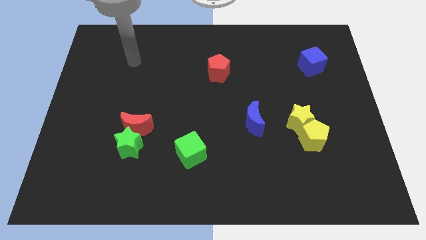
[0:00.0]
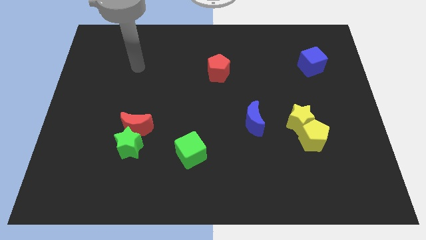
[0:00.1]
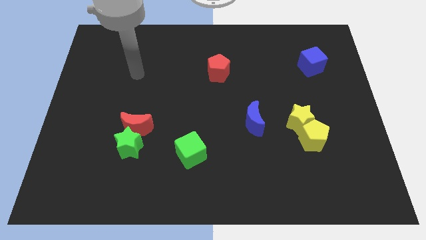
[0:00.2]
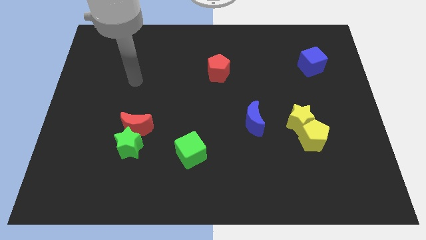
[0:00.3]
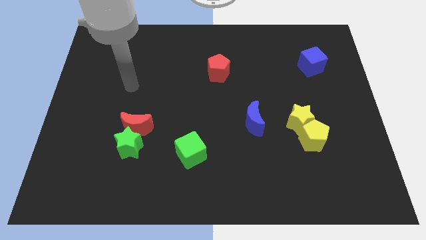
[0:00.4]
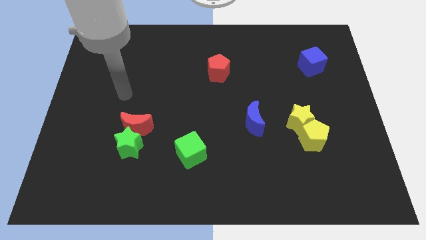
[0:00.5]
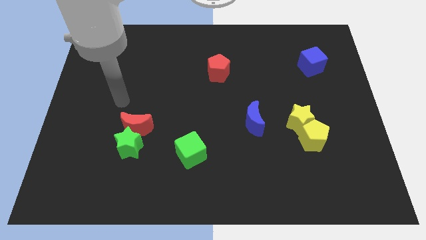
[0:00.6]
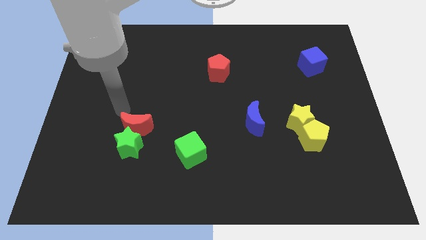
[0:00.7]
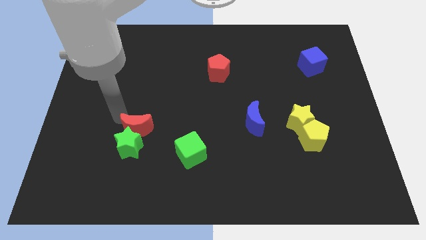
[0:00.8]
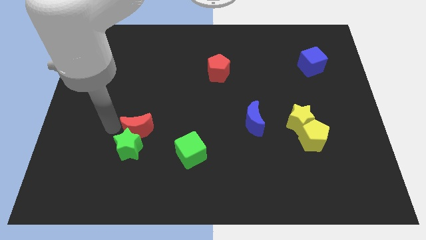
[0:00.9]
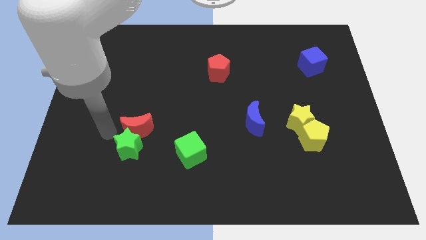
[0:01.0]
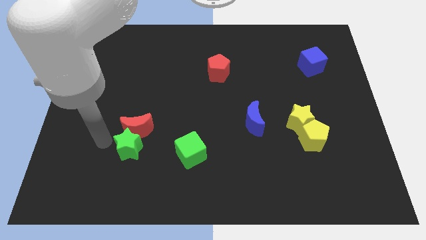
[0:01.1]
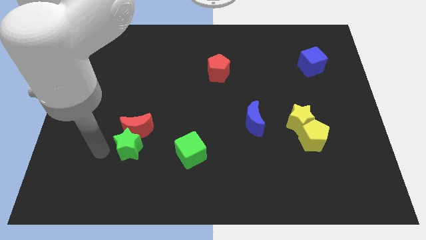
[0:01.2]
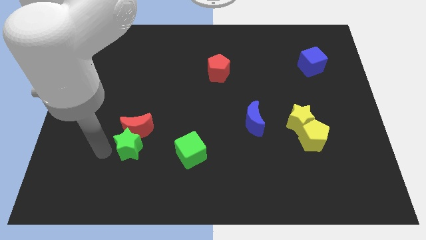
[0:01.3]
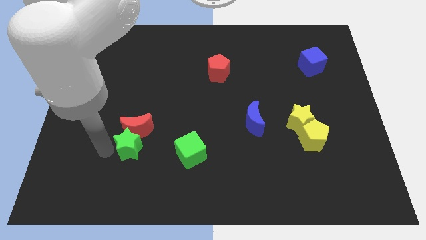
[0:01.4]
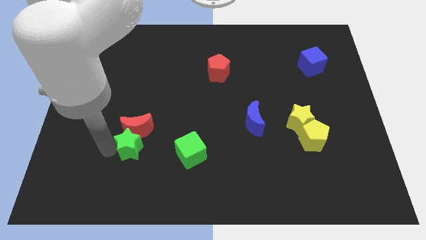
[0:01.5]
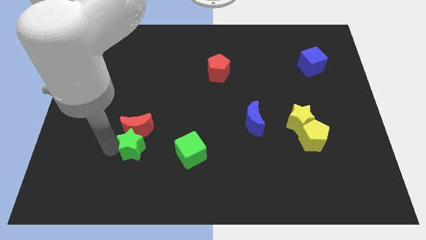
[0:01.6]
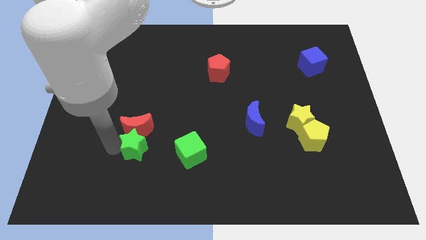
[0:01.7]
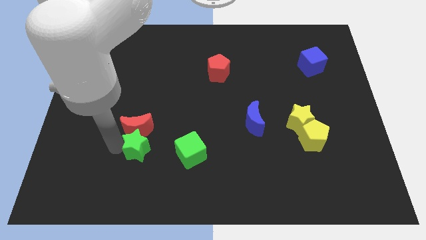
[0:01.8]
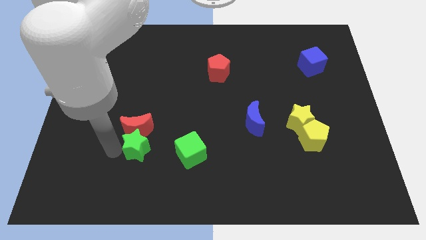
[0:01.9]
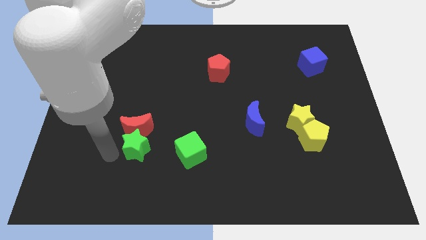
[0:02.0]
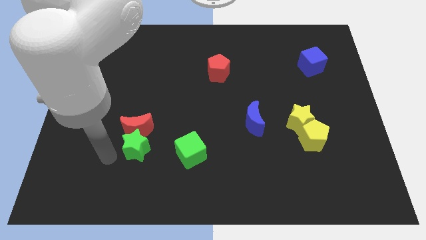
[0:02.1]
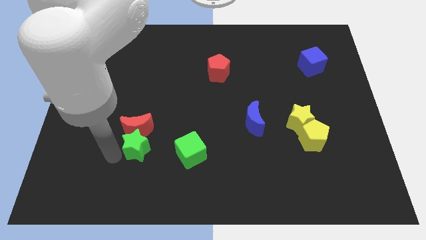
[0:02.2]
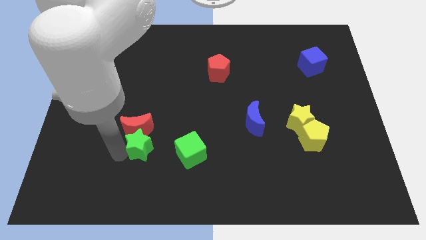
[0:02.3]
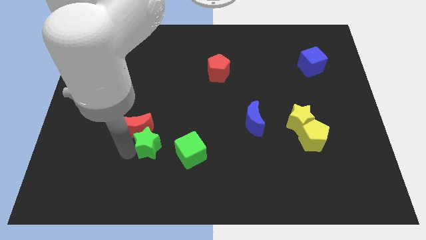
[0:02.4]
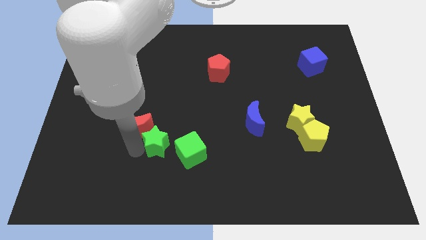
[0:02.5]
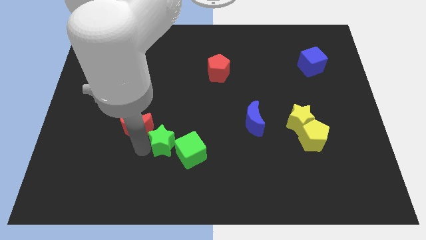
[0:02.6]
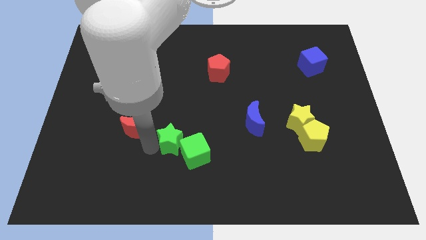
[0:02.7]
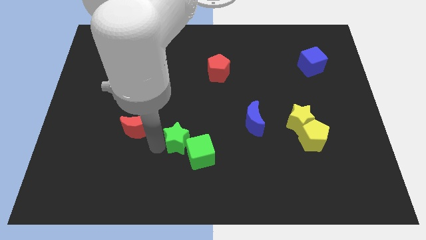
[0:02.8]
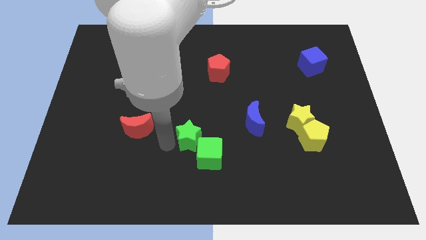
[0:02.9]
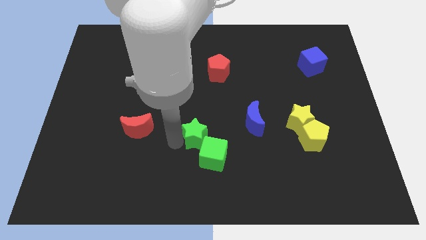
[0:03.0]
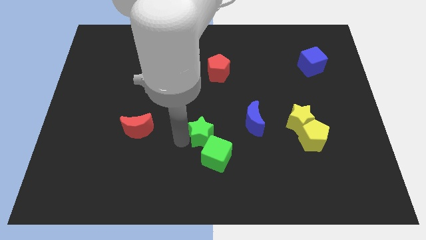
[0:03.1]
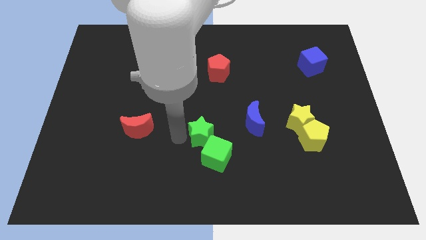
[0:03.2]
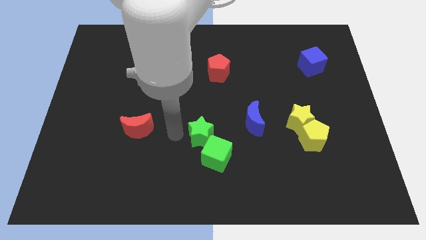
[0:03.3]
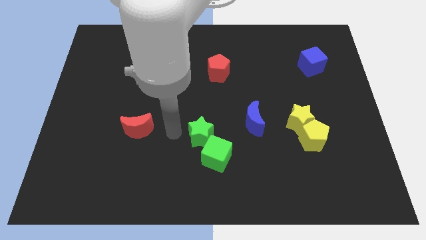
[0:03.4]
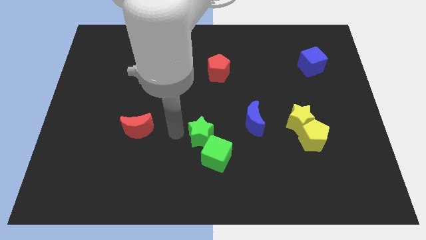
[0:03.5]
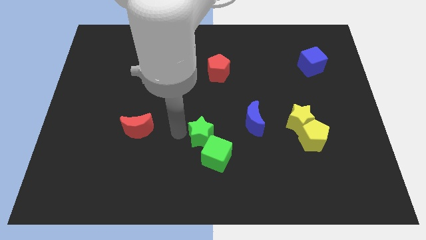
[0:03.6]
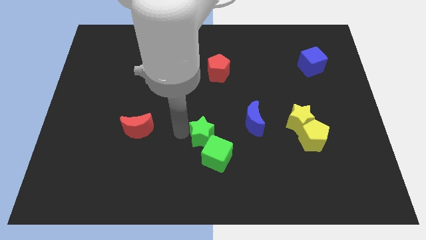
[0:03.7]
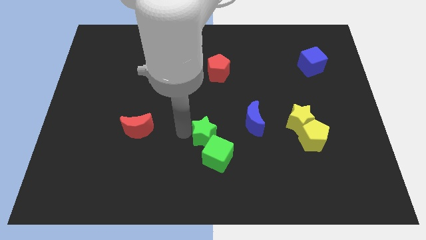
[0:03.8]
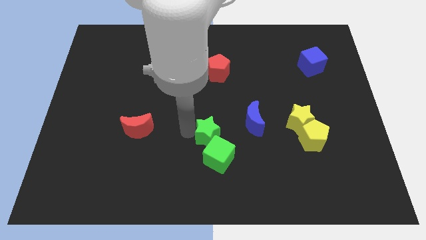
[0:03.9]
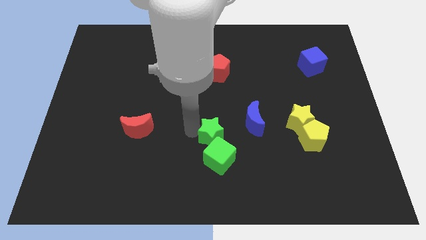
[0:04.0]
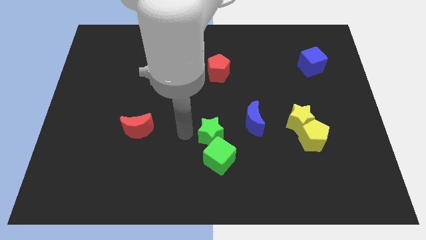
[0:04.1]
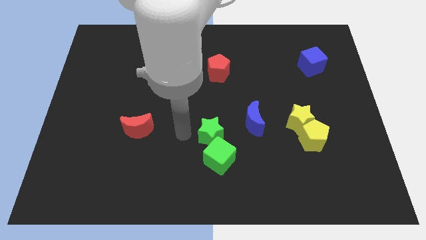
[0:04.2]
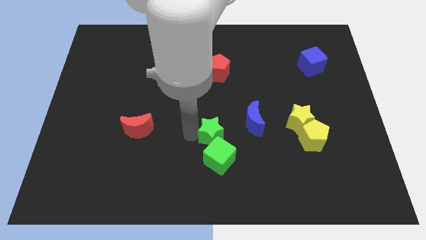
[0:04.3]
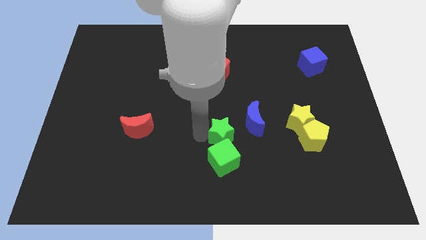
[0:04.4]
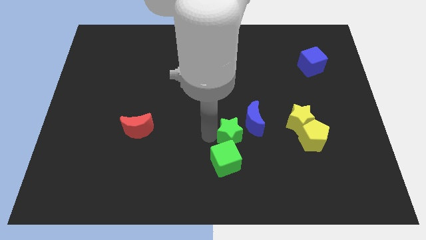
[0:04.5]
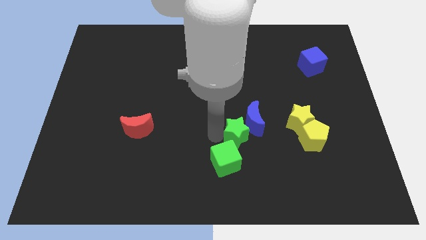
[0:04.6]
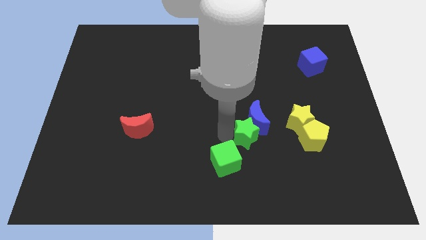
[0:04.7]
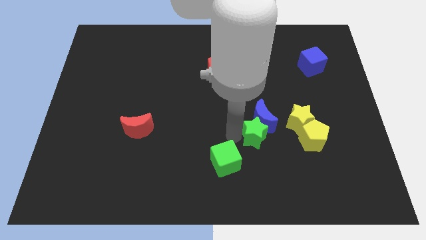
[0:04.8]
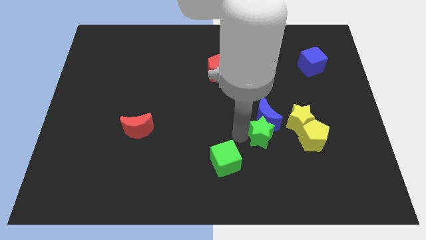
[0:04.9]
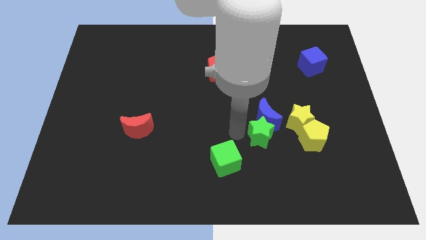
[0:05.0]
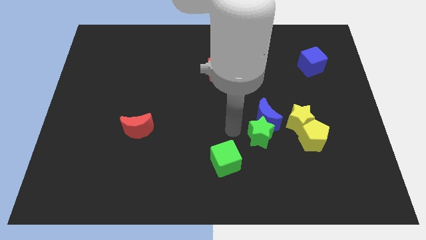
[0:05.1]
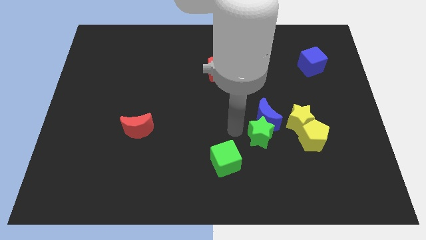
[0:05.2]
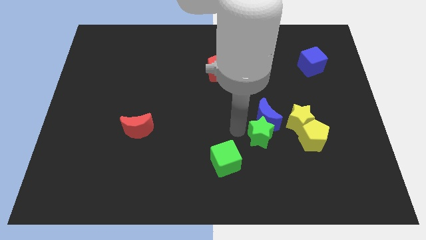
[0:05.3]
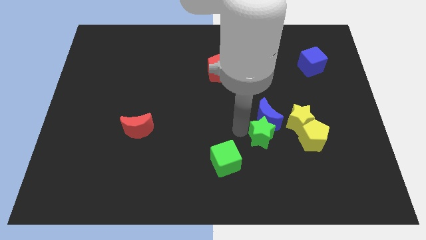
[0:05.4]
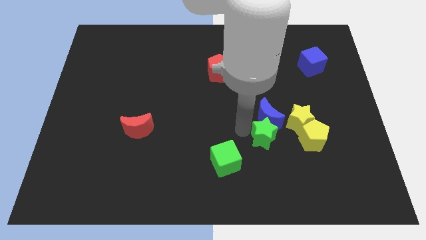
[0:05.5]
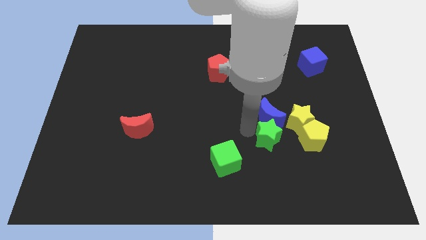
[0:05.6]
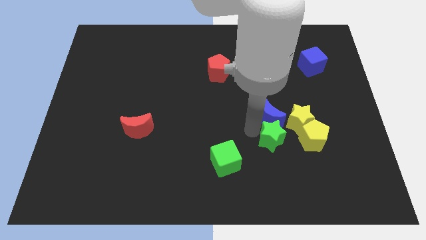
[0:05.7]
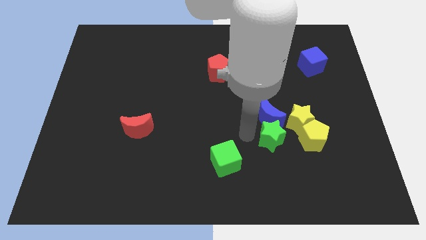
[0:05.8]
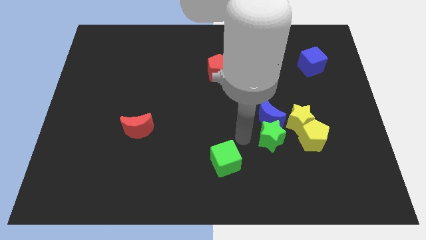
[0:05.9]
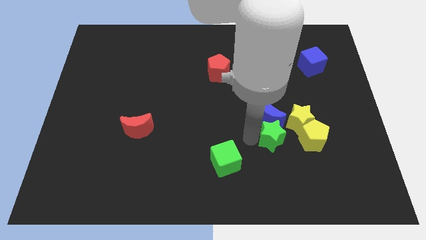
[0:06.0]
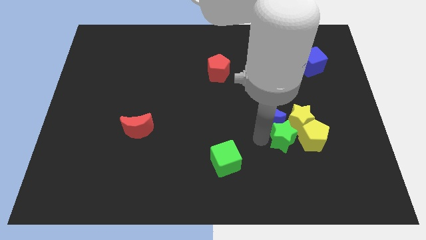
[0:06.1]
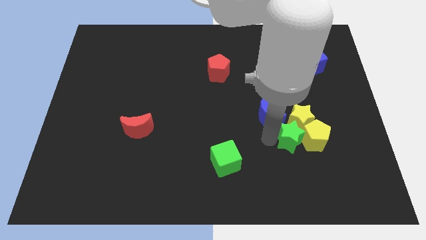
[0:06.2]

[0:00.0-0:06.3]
move the green star towards the yellow pentagon

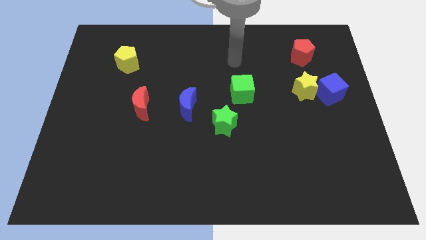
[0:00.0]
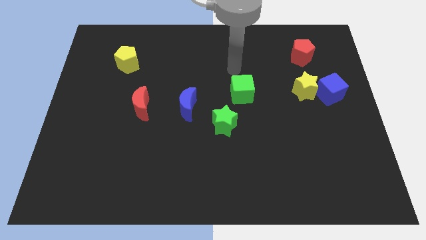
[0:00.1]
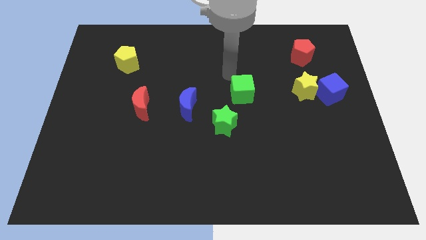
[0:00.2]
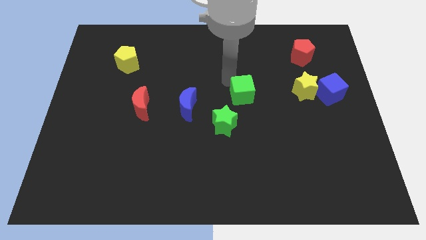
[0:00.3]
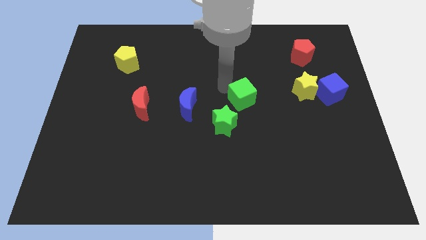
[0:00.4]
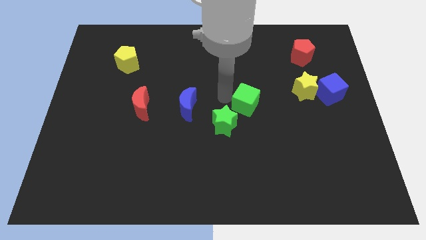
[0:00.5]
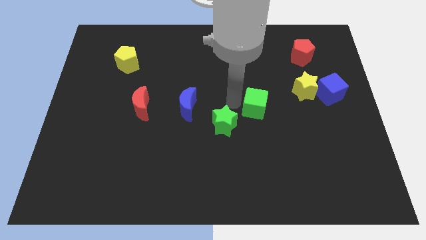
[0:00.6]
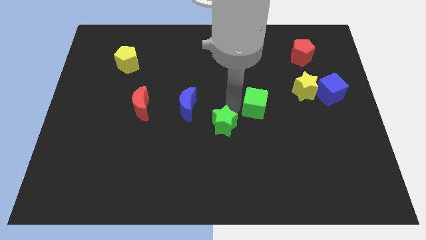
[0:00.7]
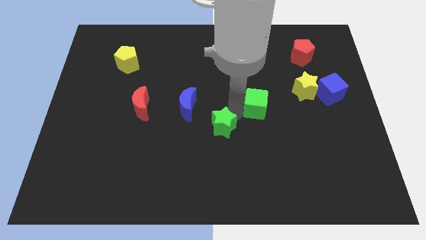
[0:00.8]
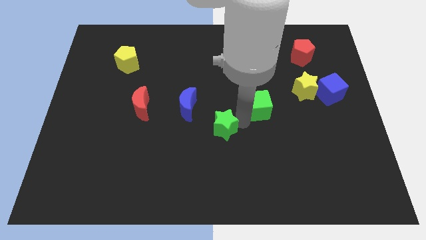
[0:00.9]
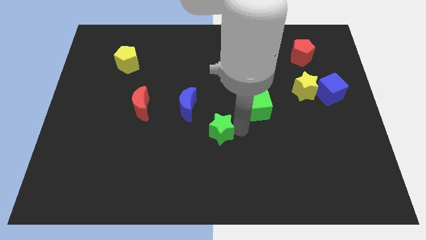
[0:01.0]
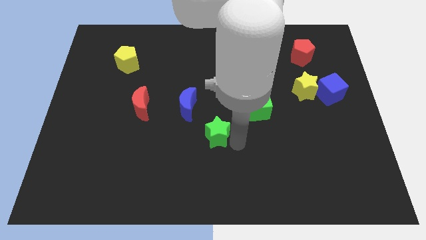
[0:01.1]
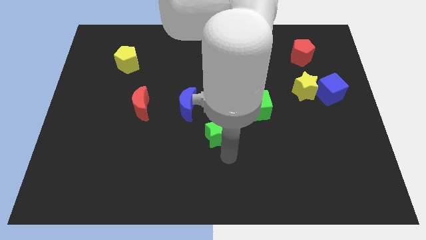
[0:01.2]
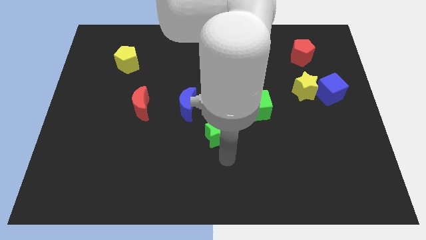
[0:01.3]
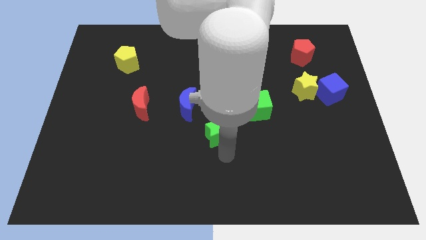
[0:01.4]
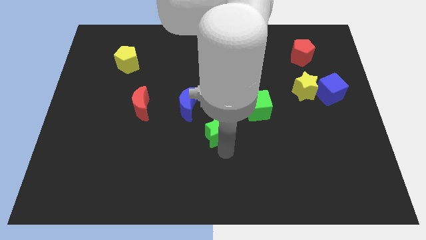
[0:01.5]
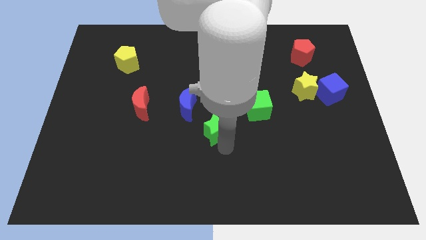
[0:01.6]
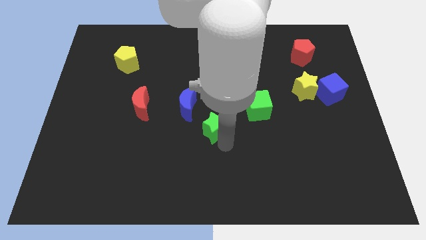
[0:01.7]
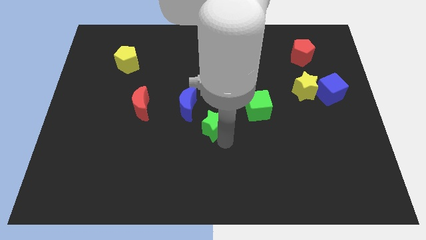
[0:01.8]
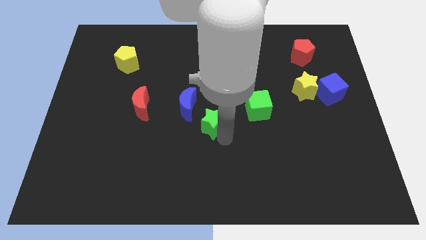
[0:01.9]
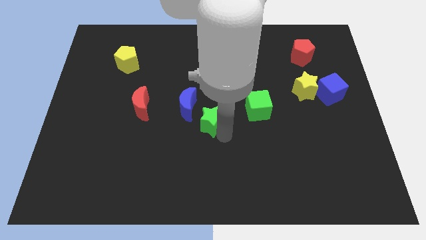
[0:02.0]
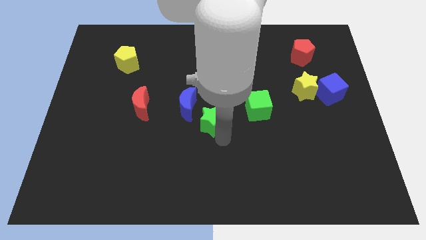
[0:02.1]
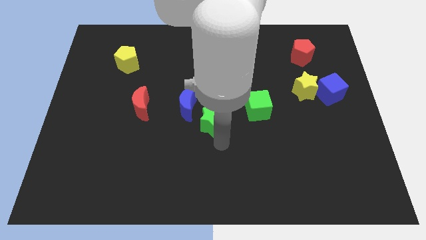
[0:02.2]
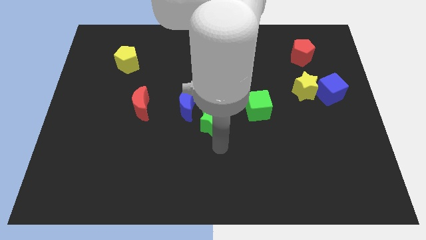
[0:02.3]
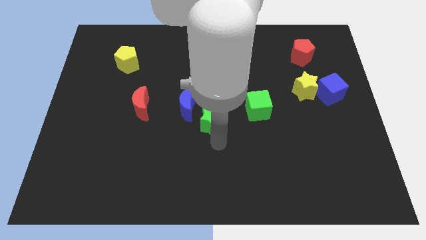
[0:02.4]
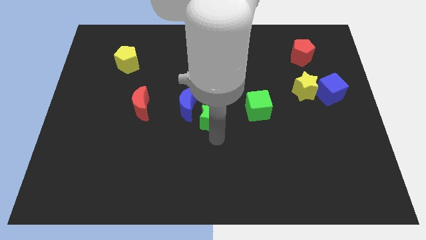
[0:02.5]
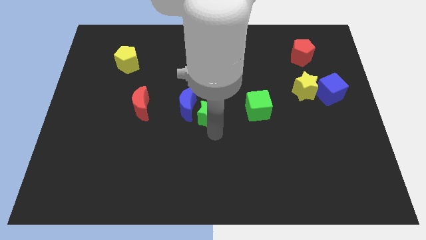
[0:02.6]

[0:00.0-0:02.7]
put the green star next to the blue moon
